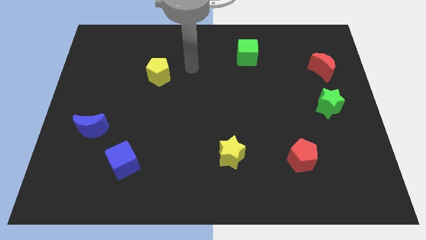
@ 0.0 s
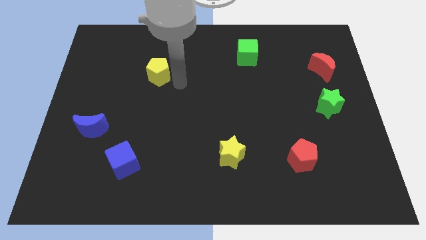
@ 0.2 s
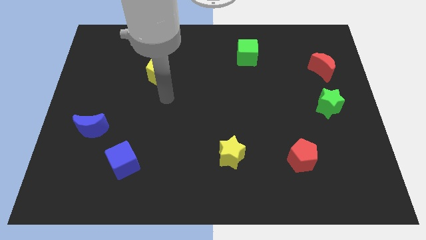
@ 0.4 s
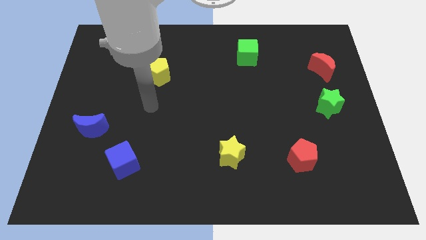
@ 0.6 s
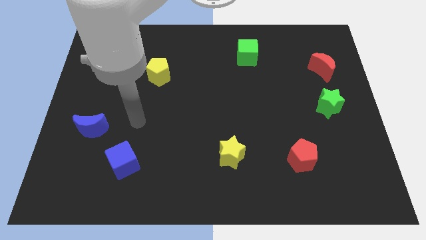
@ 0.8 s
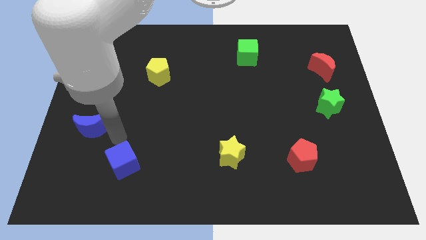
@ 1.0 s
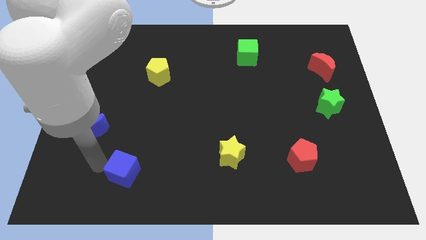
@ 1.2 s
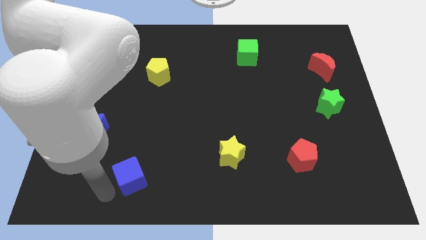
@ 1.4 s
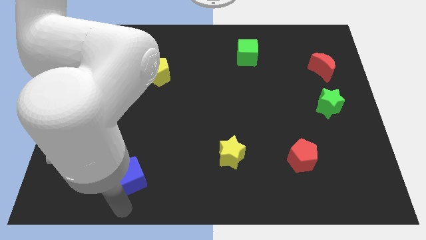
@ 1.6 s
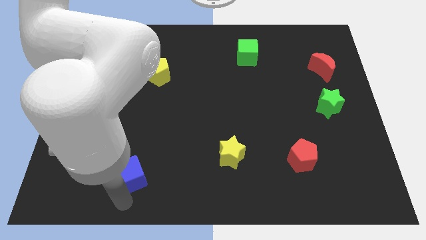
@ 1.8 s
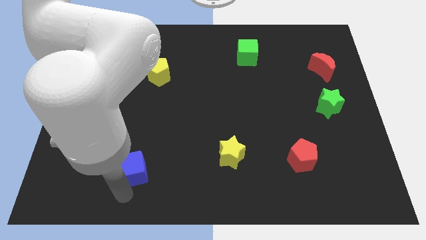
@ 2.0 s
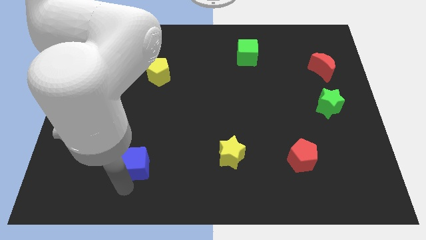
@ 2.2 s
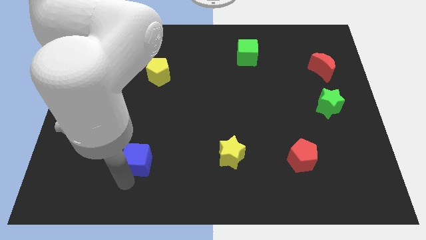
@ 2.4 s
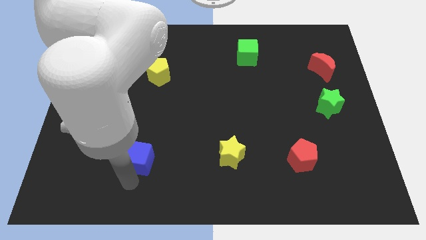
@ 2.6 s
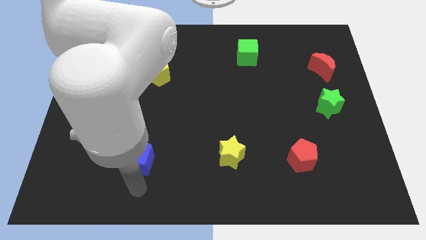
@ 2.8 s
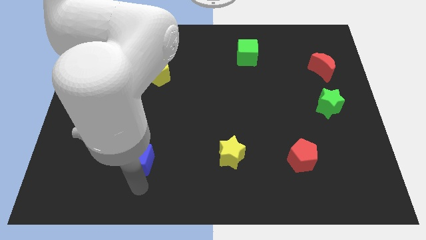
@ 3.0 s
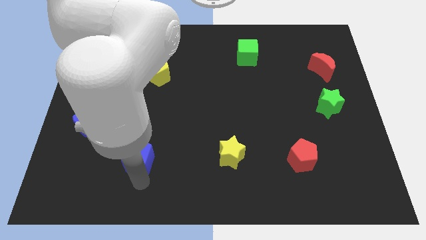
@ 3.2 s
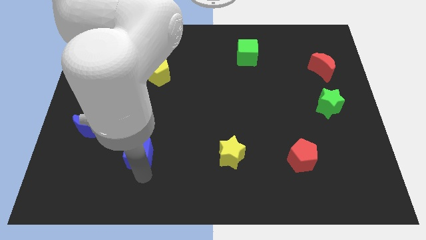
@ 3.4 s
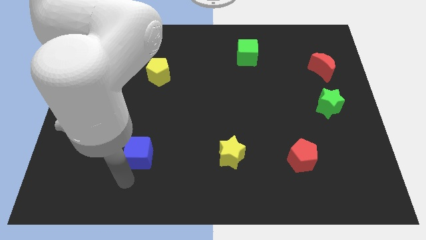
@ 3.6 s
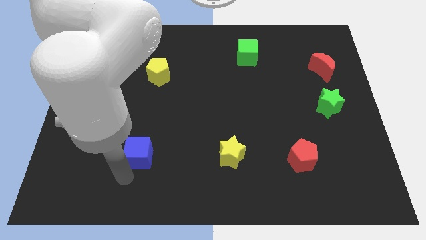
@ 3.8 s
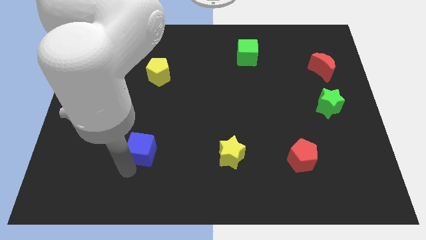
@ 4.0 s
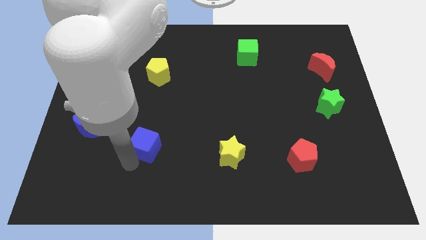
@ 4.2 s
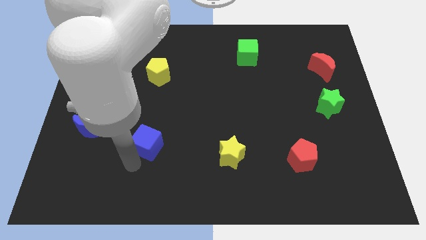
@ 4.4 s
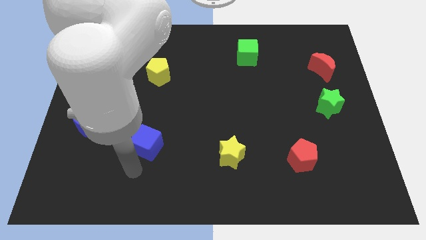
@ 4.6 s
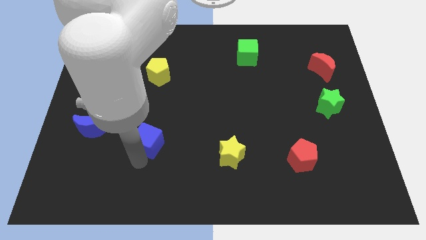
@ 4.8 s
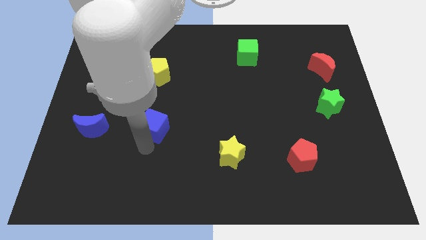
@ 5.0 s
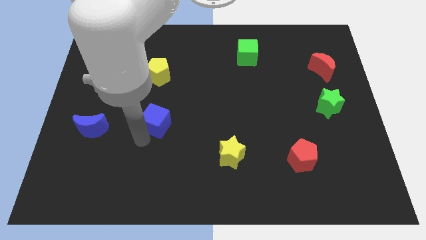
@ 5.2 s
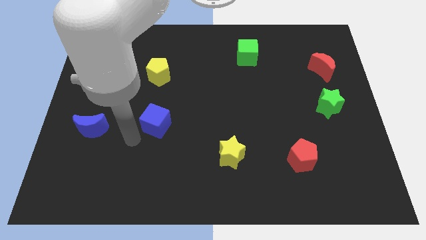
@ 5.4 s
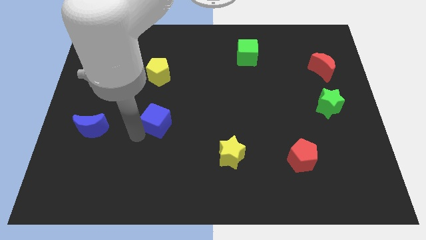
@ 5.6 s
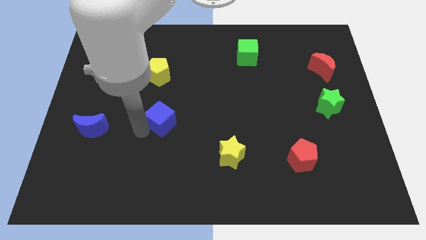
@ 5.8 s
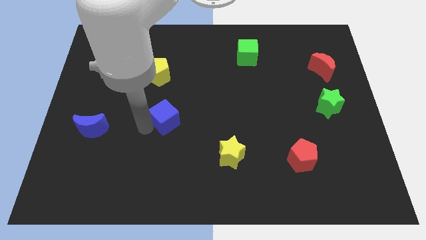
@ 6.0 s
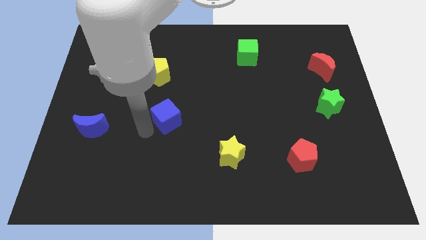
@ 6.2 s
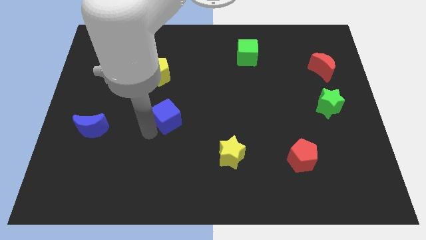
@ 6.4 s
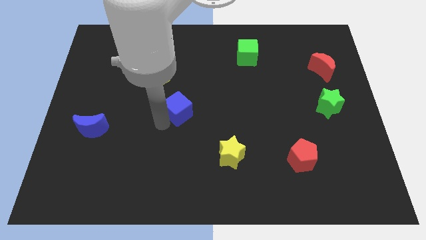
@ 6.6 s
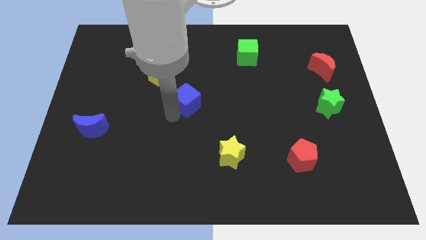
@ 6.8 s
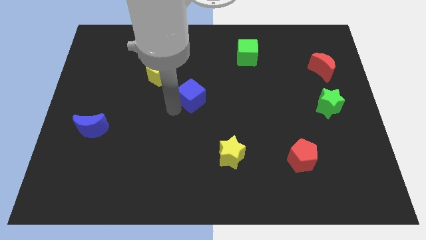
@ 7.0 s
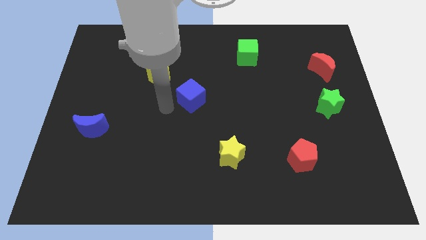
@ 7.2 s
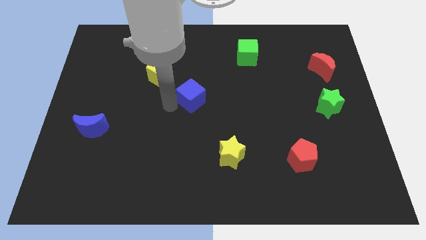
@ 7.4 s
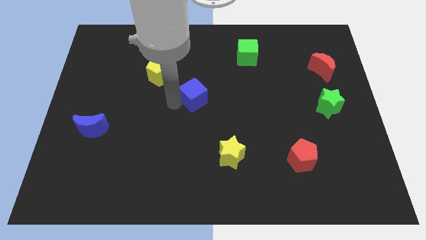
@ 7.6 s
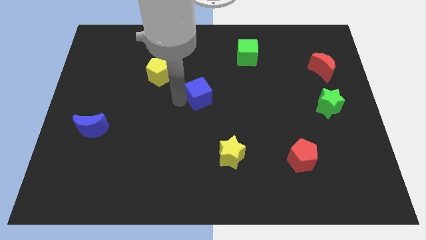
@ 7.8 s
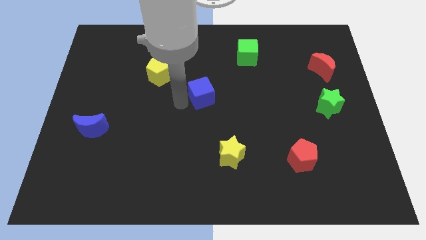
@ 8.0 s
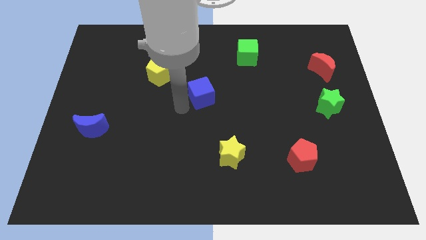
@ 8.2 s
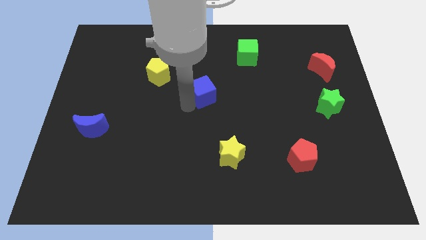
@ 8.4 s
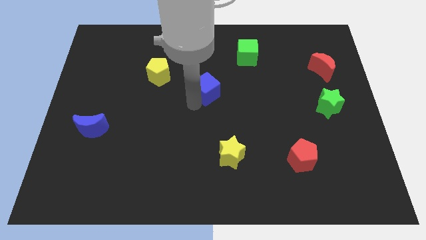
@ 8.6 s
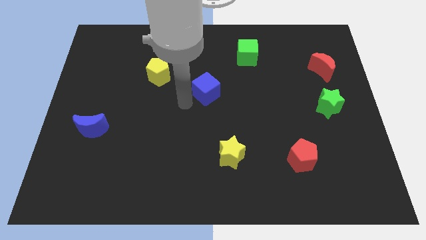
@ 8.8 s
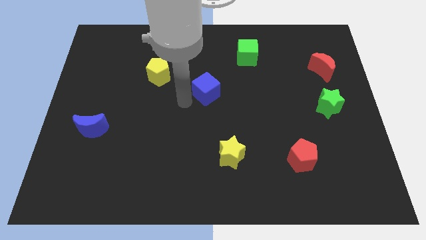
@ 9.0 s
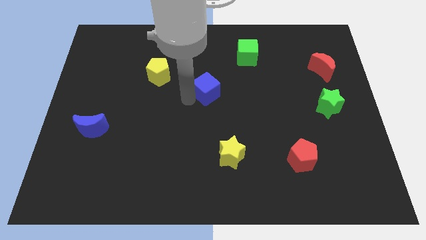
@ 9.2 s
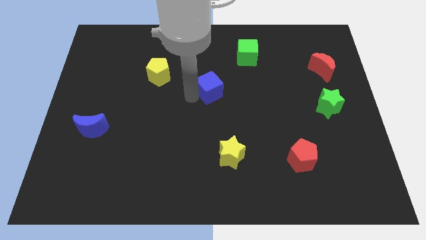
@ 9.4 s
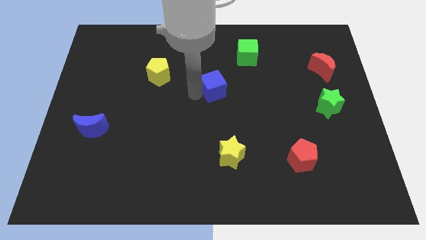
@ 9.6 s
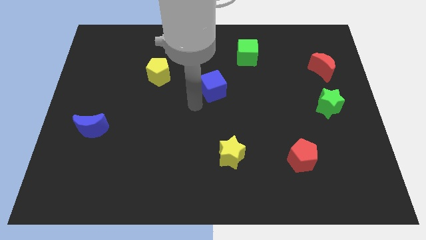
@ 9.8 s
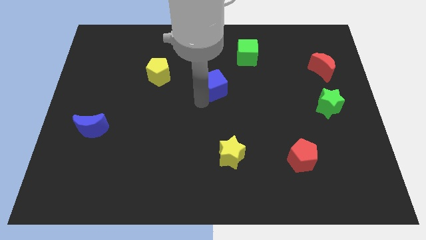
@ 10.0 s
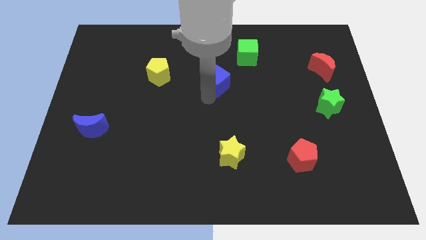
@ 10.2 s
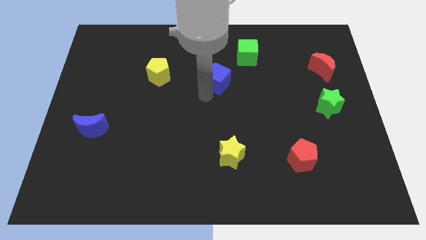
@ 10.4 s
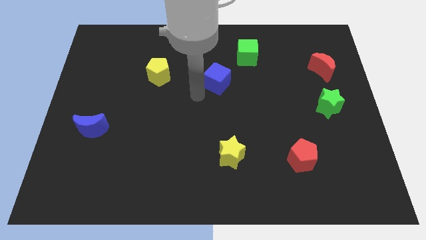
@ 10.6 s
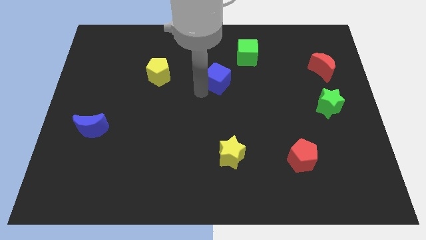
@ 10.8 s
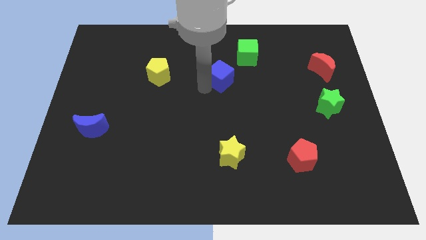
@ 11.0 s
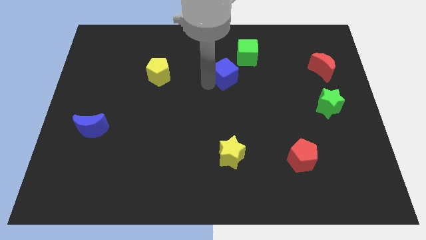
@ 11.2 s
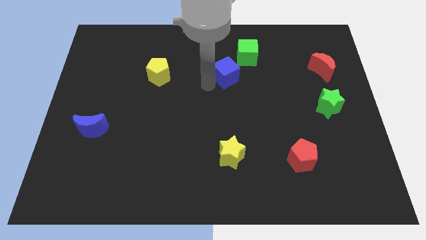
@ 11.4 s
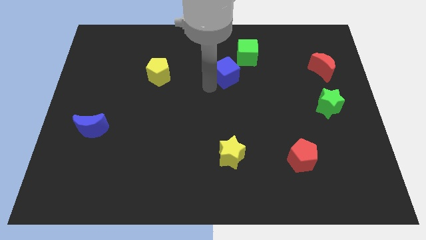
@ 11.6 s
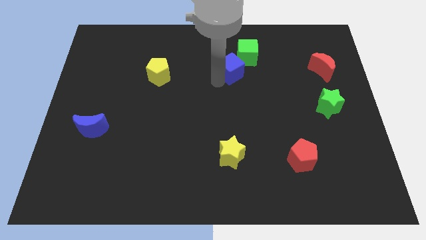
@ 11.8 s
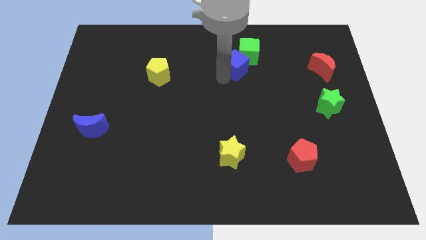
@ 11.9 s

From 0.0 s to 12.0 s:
move the blue cube towards the green cube

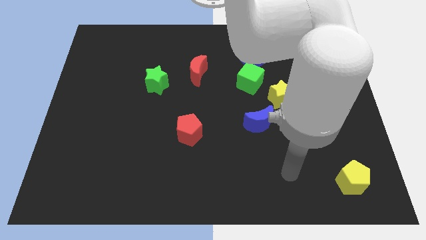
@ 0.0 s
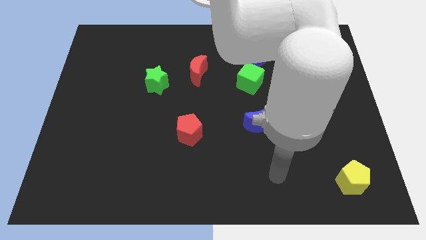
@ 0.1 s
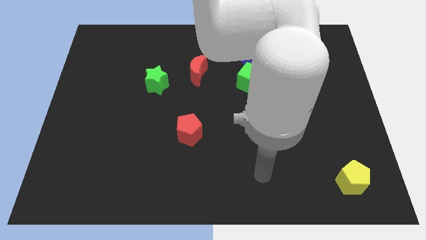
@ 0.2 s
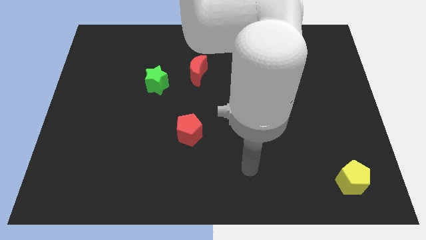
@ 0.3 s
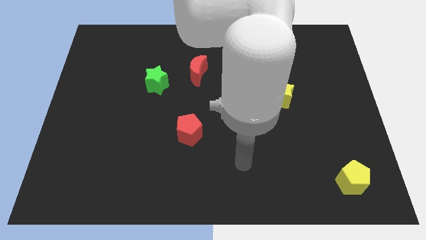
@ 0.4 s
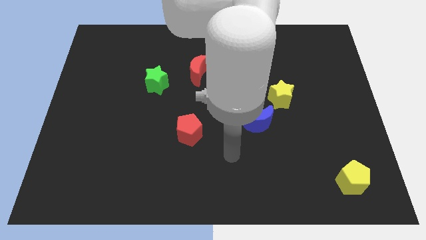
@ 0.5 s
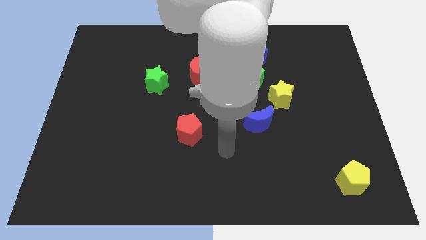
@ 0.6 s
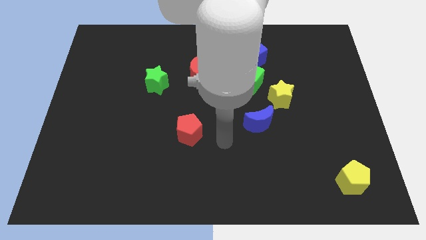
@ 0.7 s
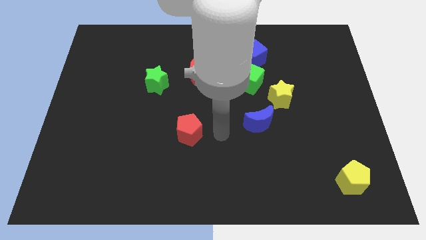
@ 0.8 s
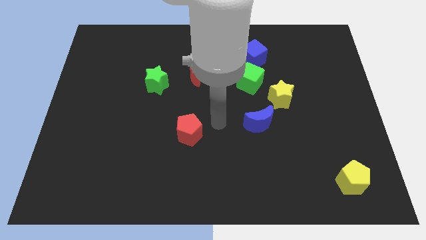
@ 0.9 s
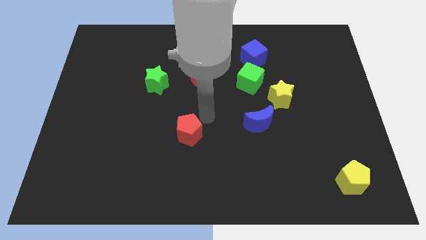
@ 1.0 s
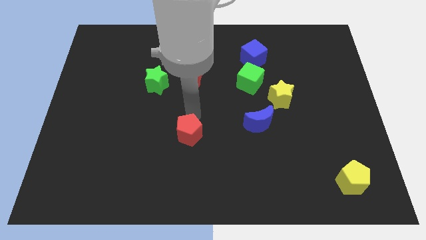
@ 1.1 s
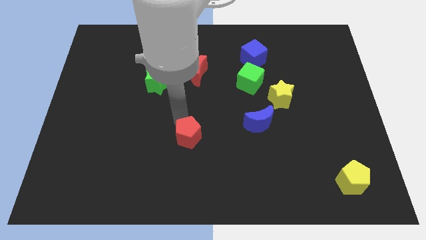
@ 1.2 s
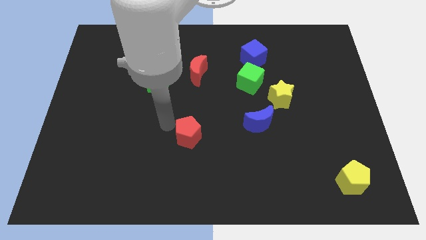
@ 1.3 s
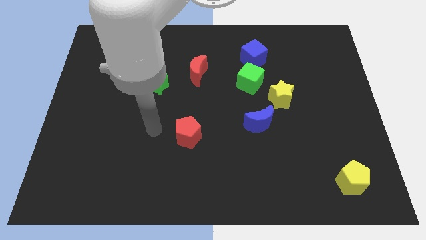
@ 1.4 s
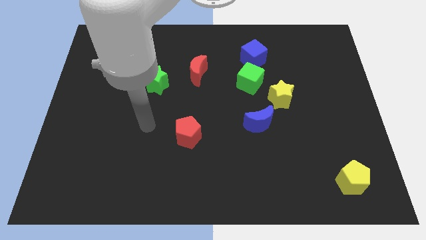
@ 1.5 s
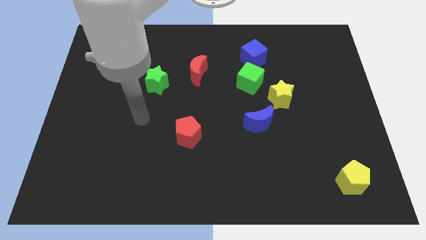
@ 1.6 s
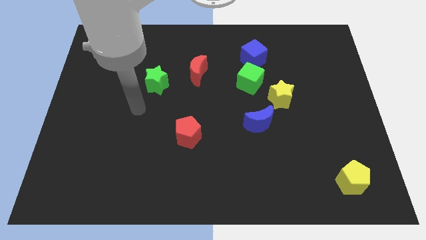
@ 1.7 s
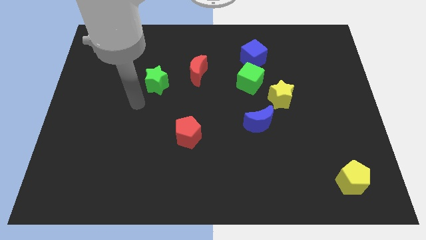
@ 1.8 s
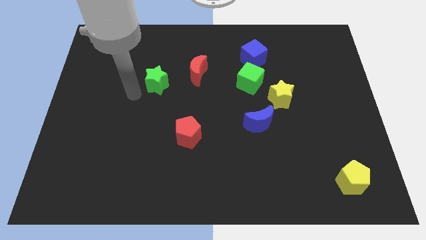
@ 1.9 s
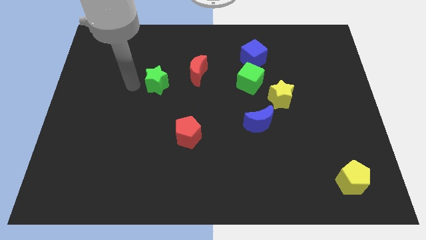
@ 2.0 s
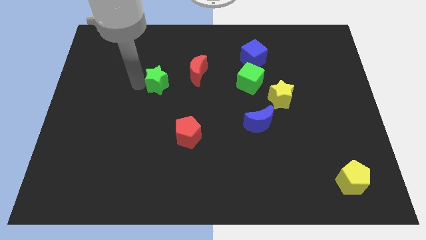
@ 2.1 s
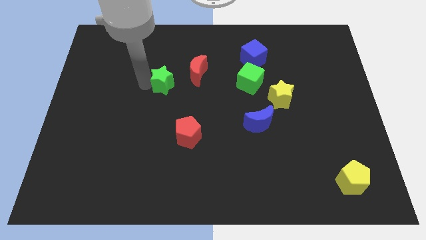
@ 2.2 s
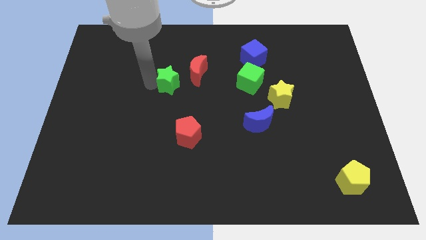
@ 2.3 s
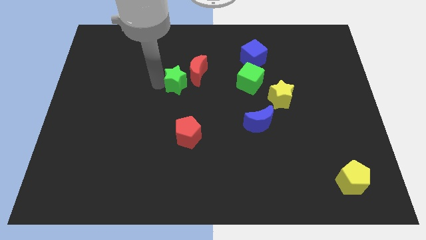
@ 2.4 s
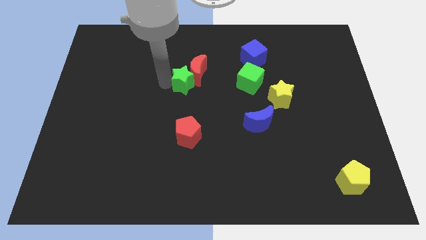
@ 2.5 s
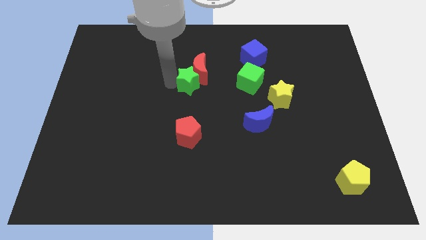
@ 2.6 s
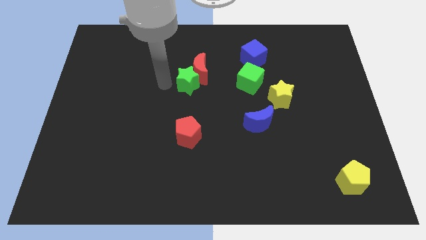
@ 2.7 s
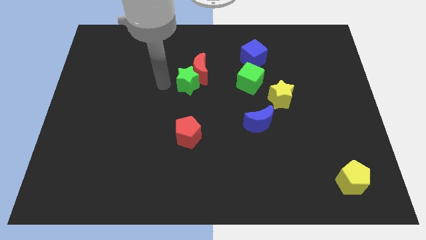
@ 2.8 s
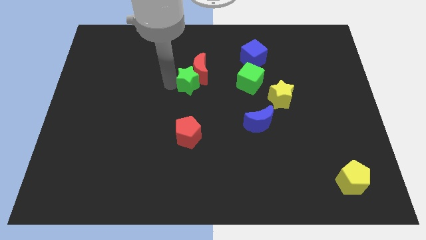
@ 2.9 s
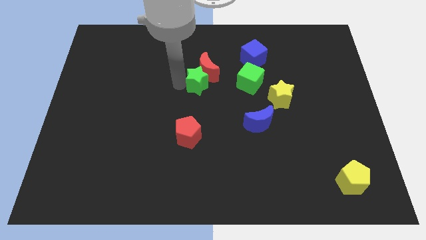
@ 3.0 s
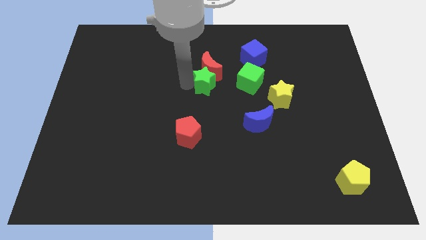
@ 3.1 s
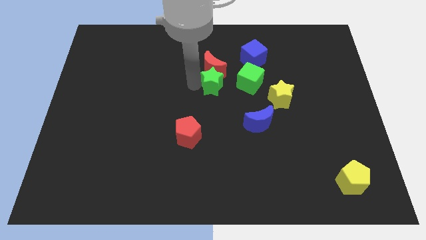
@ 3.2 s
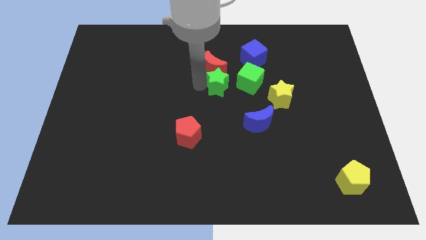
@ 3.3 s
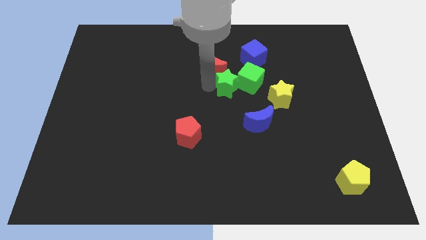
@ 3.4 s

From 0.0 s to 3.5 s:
put the green star next to the green cube
